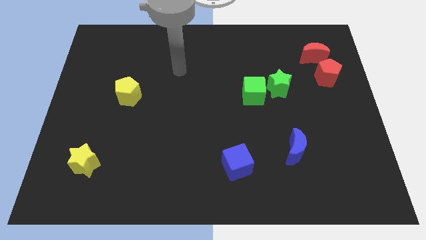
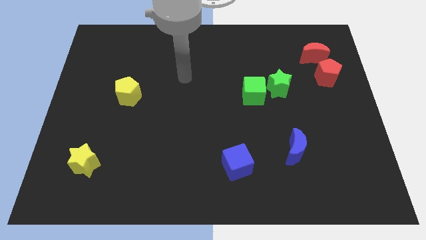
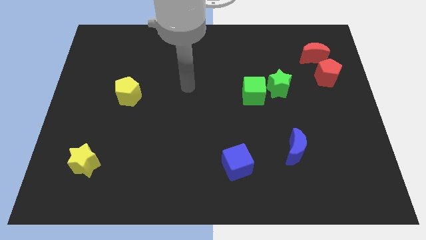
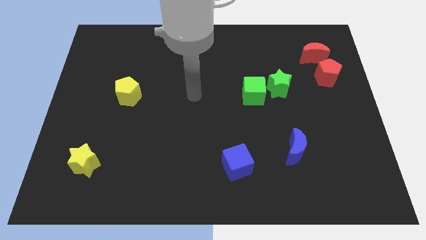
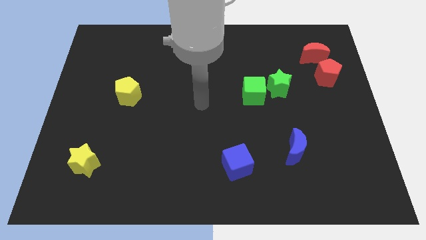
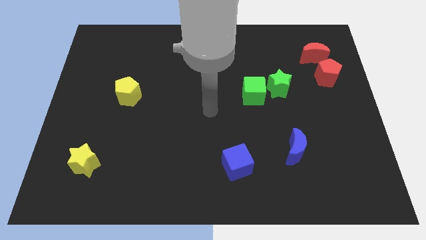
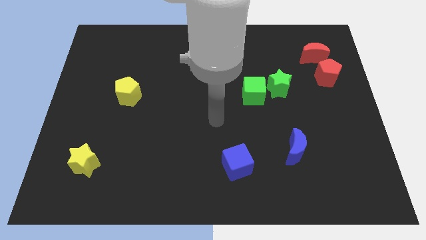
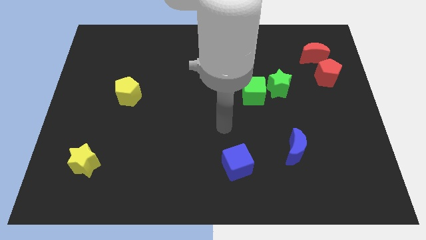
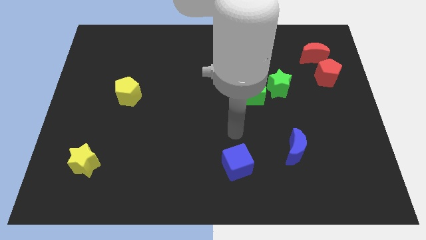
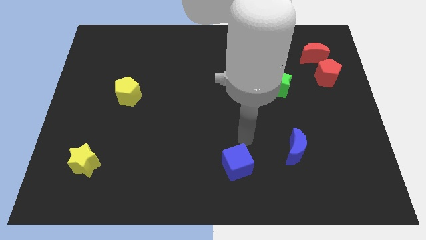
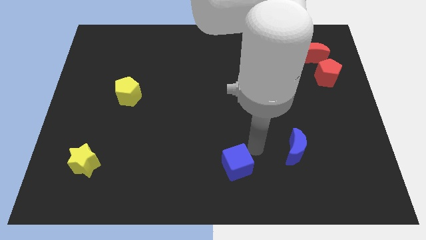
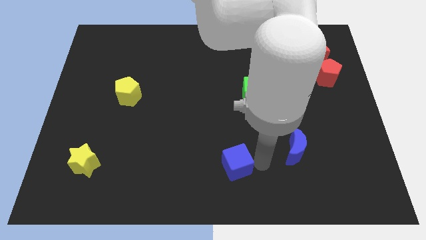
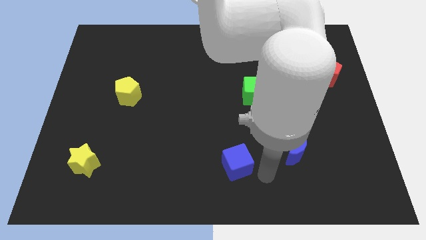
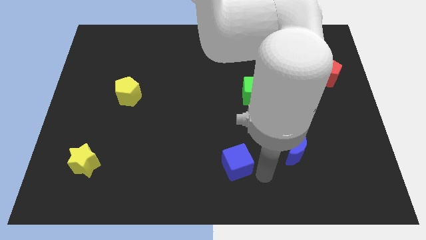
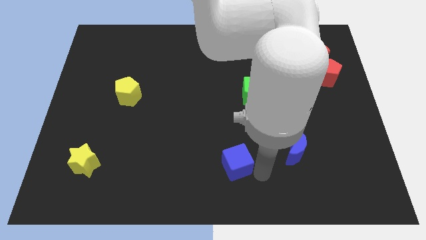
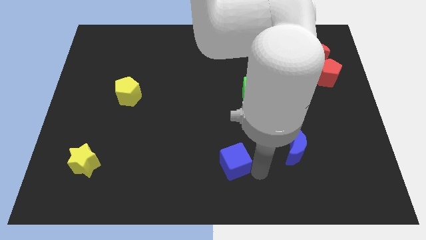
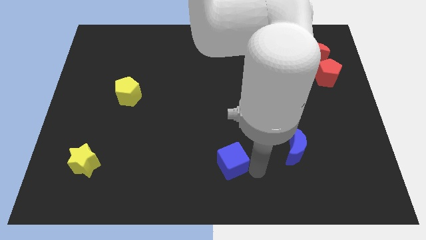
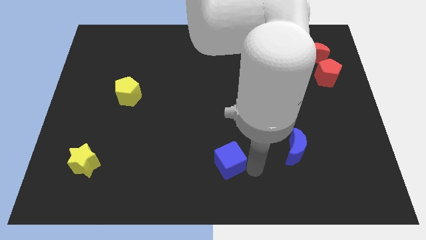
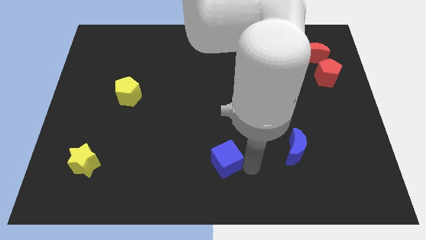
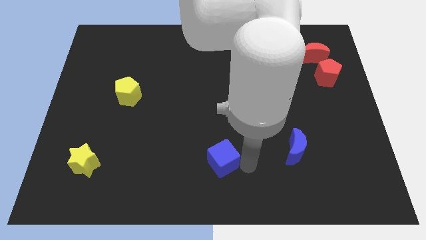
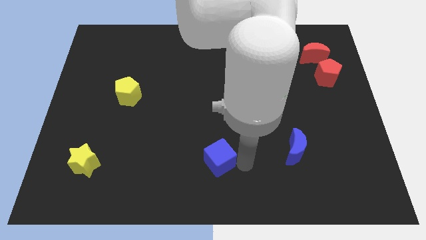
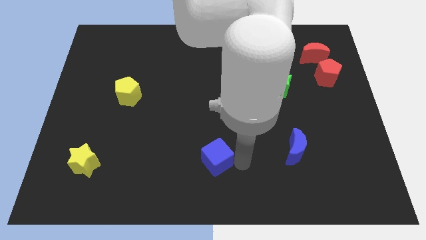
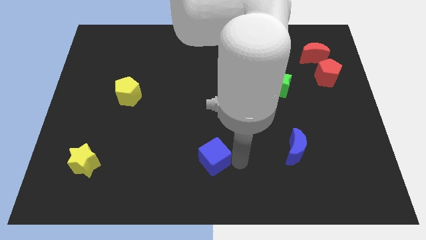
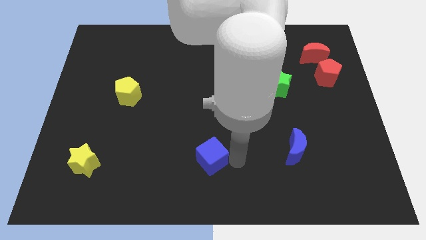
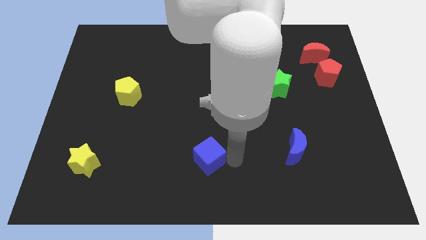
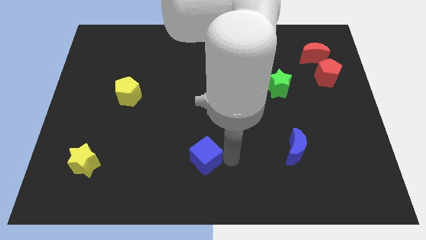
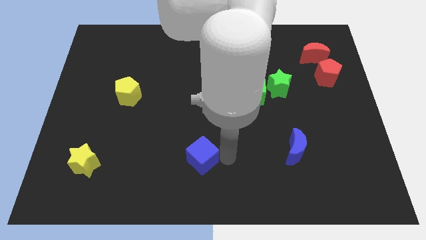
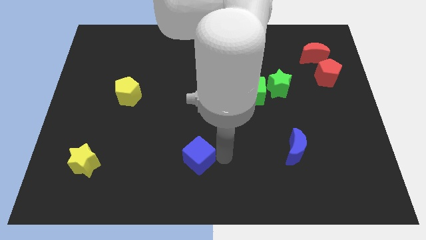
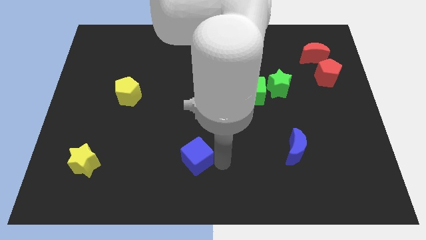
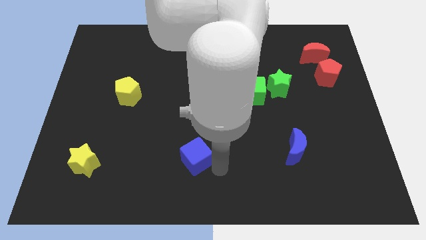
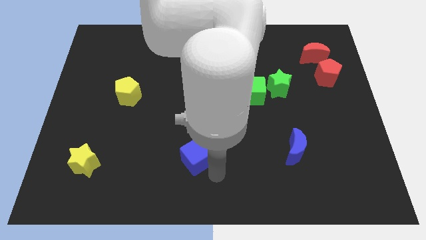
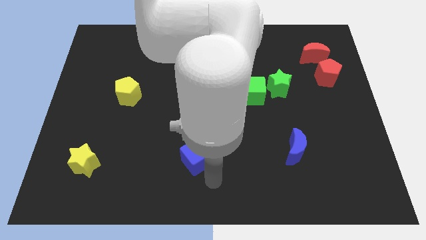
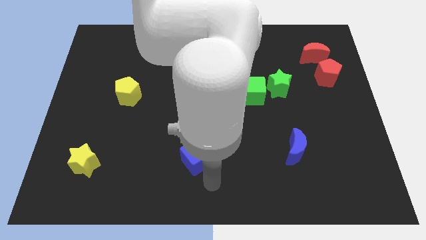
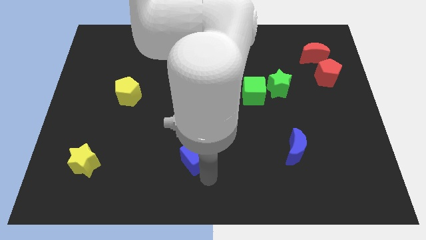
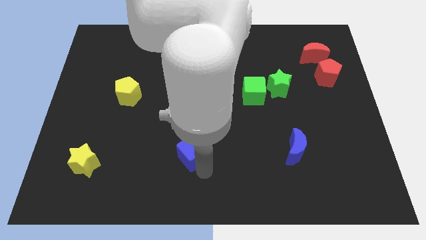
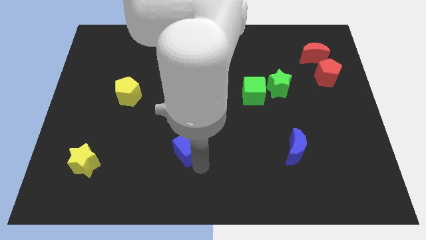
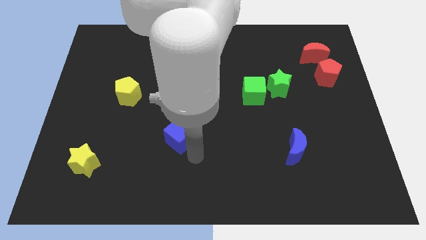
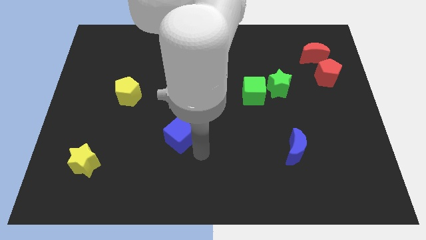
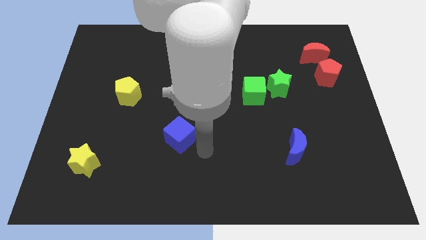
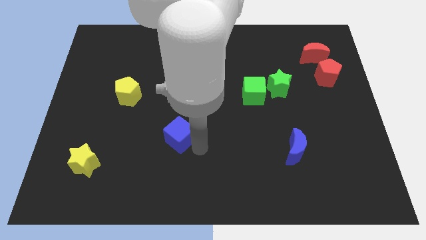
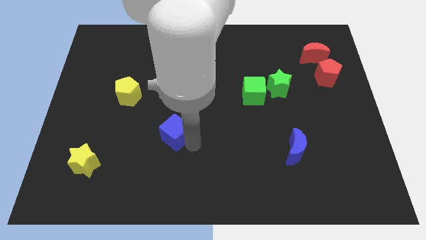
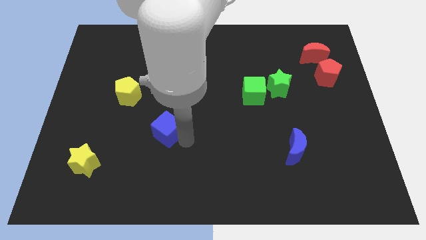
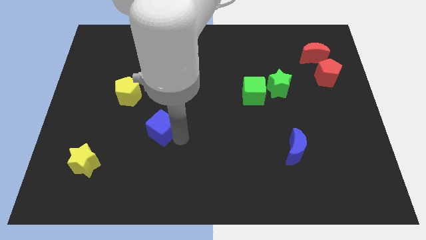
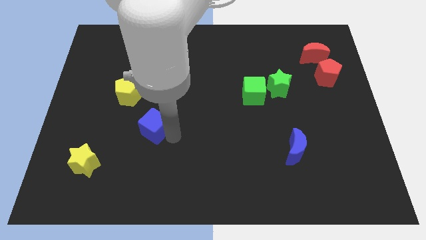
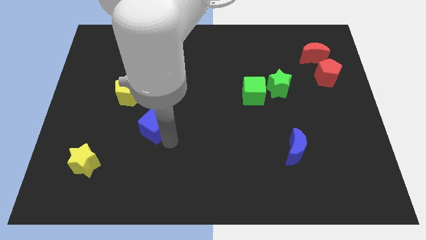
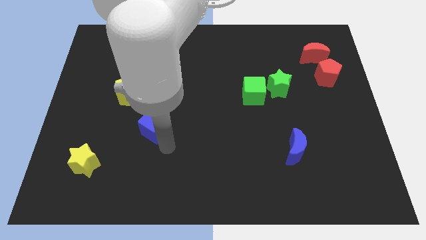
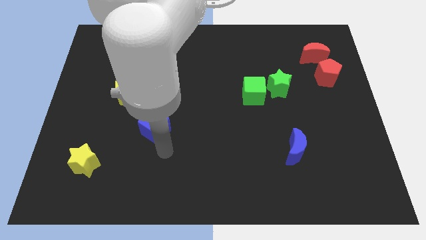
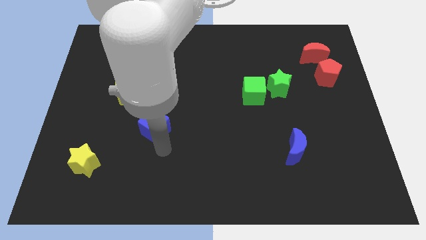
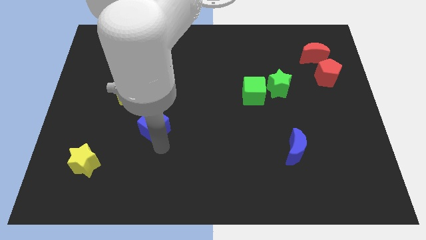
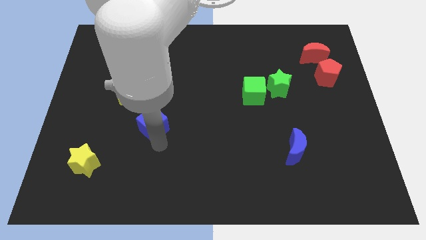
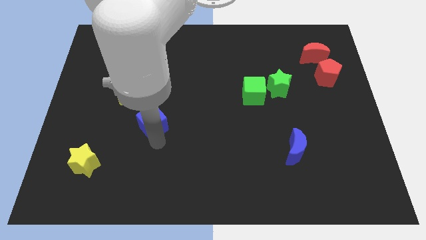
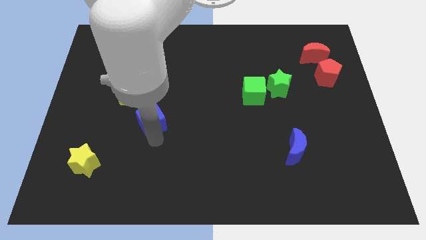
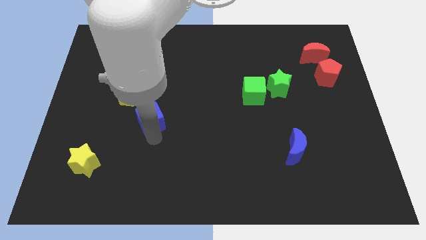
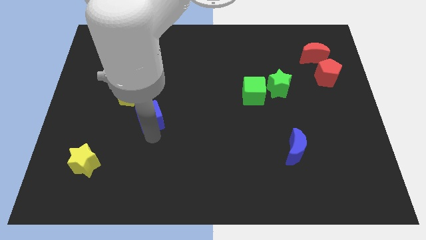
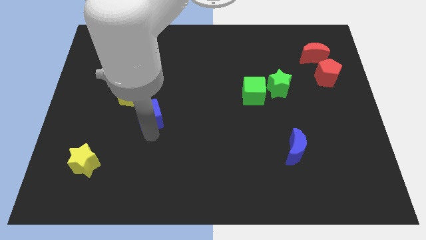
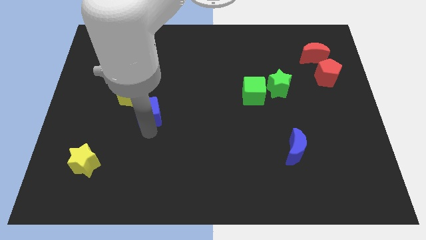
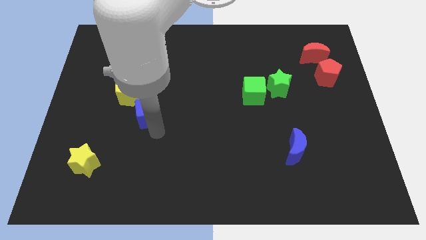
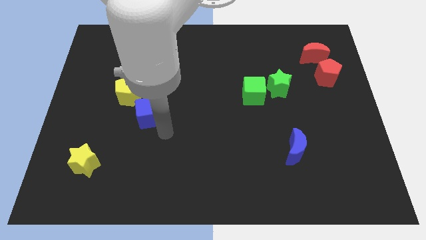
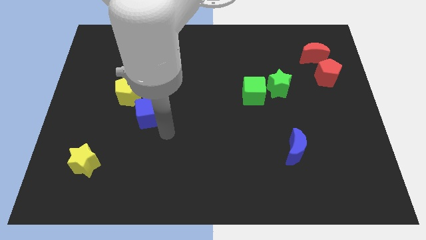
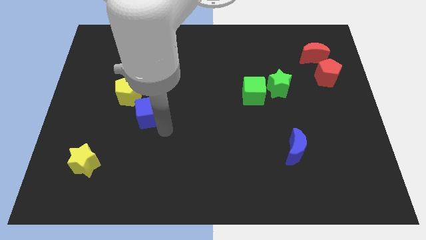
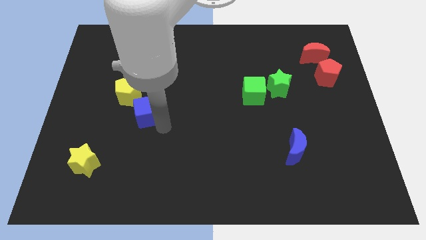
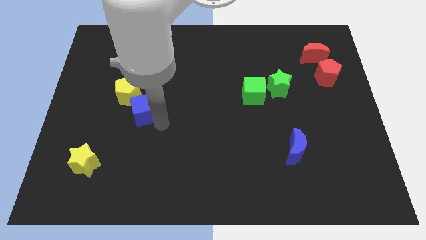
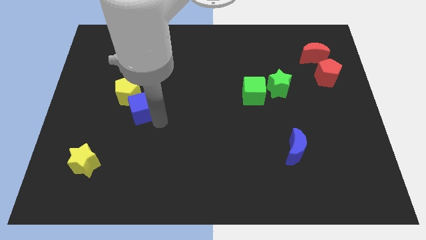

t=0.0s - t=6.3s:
move the blue cube to the yellow pentagon

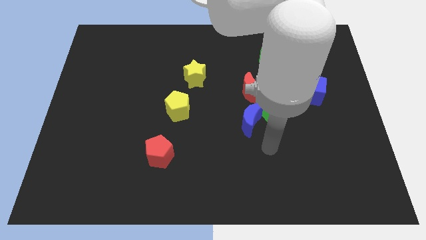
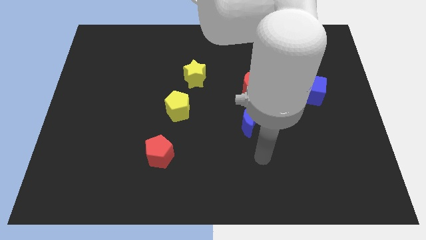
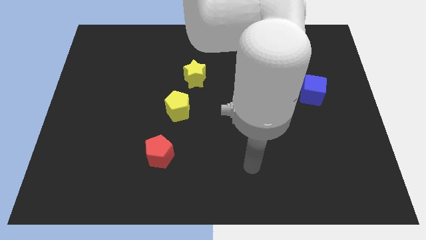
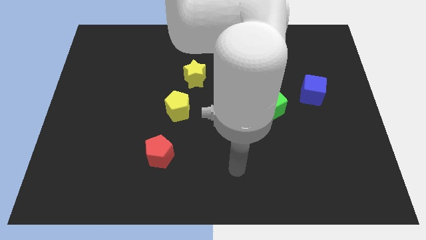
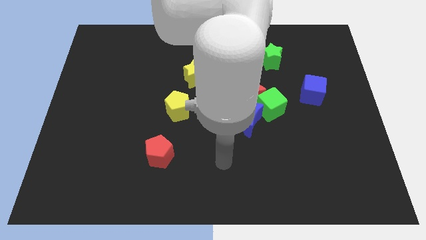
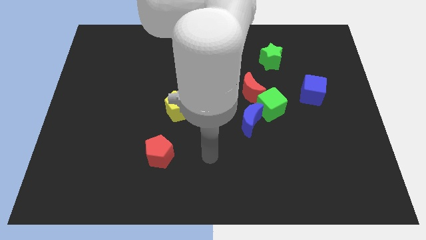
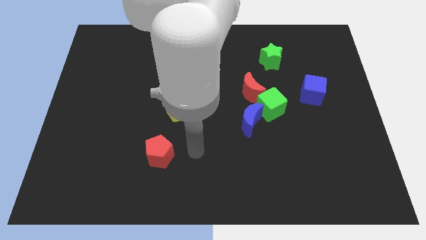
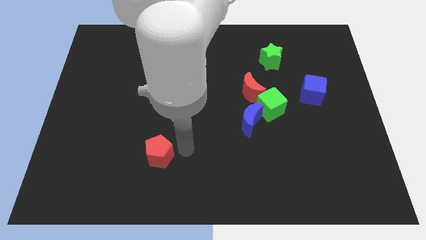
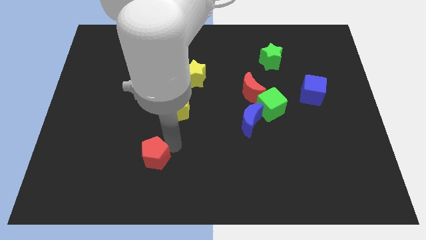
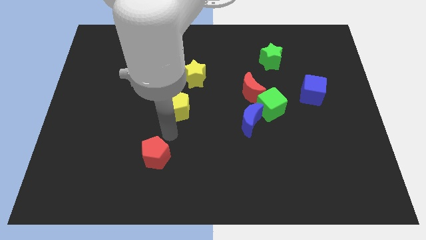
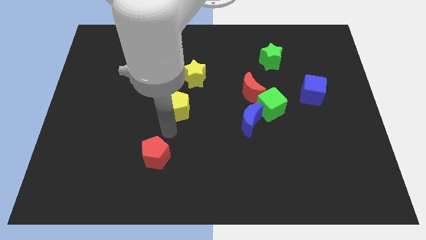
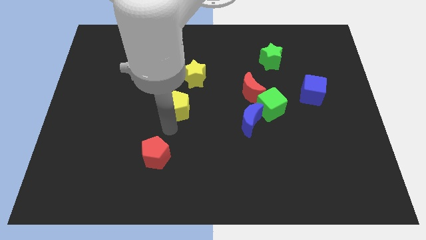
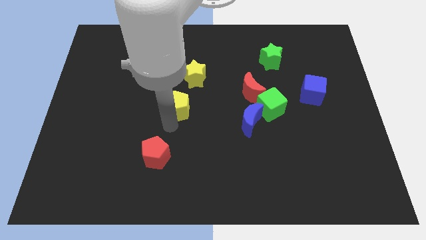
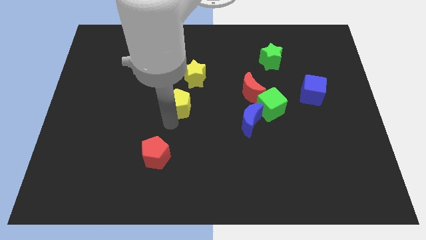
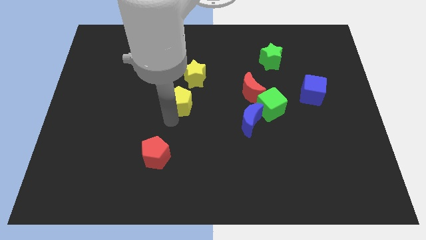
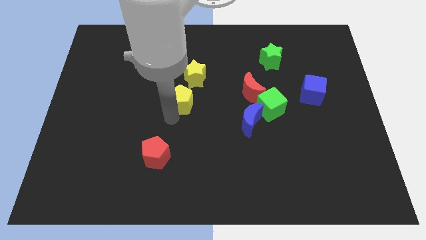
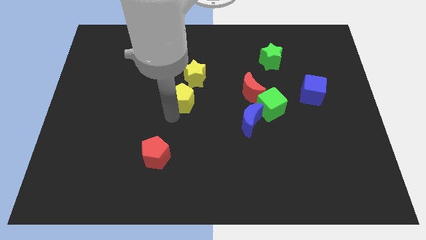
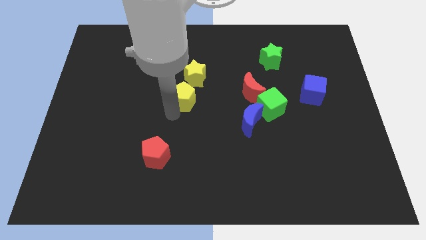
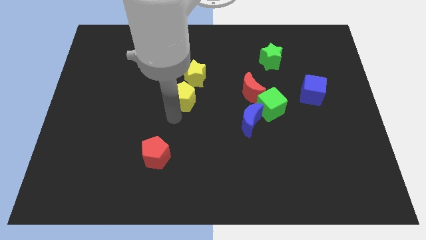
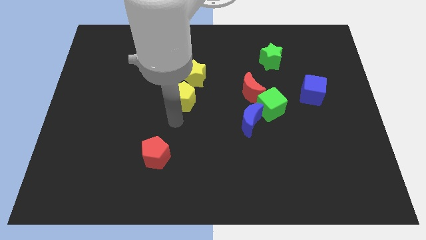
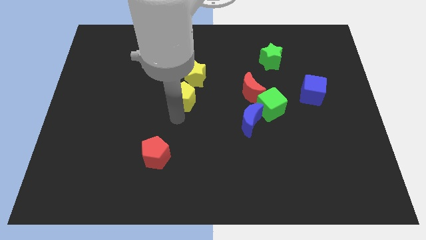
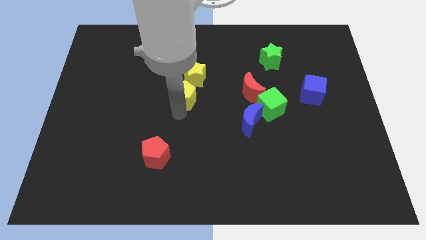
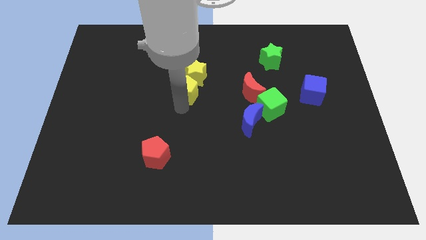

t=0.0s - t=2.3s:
put the yellow pentagon towards the yellow star
